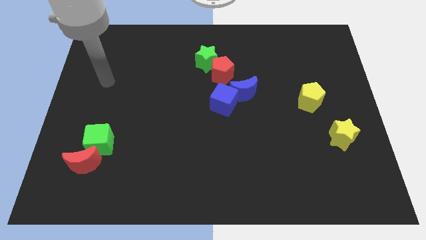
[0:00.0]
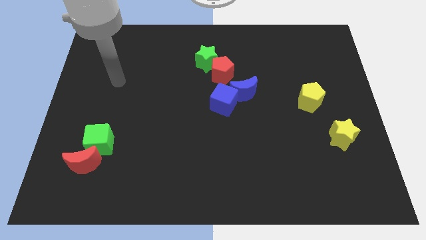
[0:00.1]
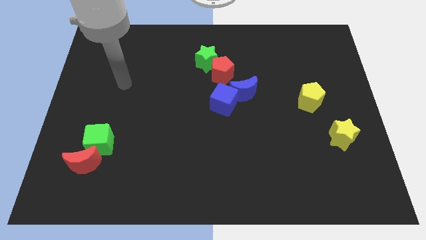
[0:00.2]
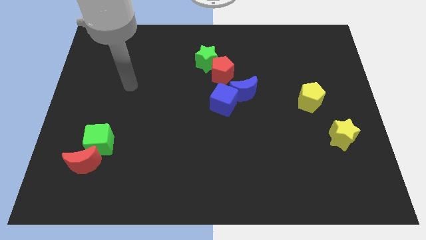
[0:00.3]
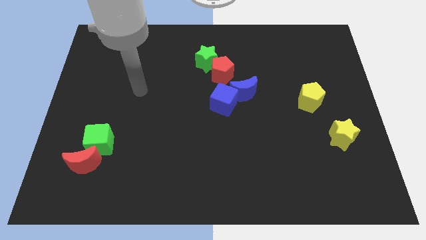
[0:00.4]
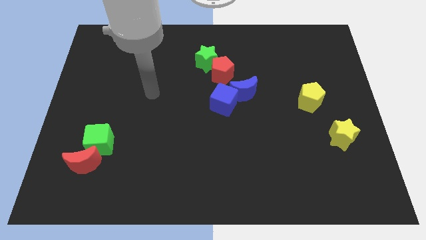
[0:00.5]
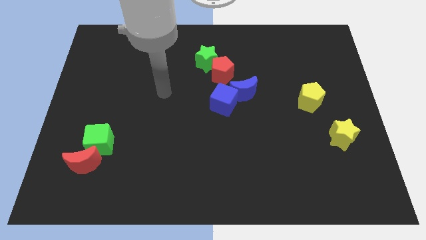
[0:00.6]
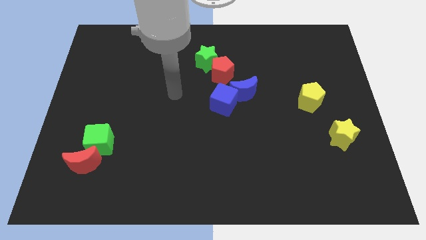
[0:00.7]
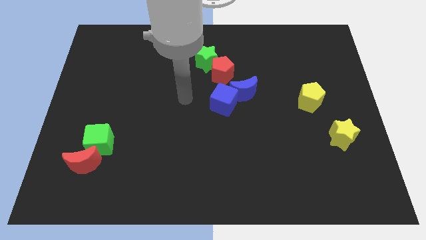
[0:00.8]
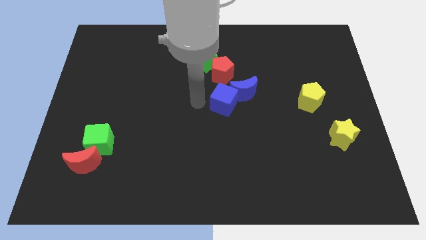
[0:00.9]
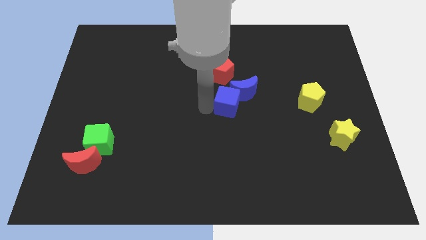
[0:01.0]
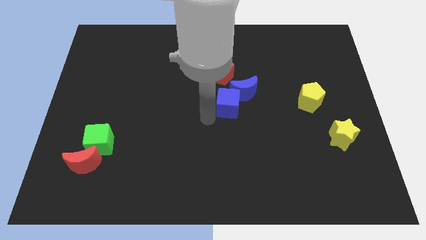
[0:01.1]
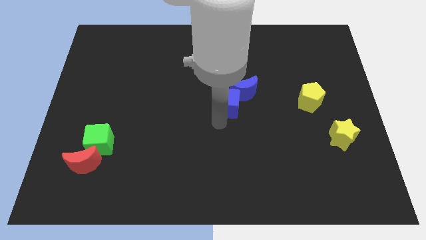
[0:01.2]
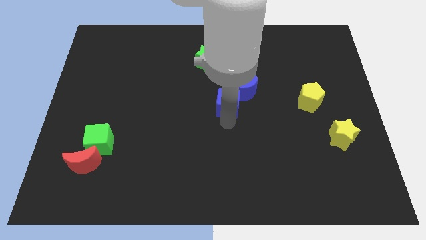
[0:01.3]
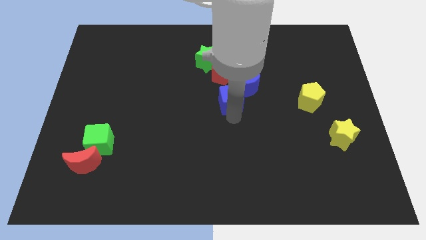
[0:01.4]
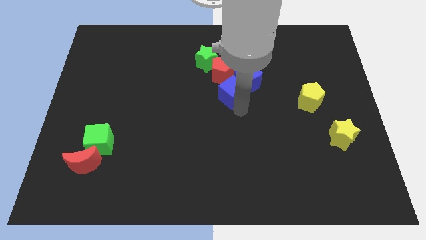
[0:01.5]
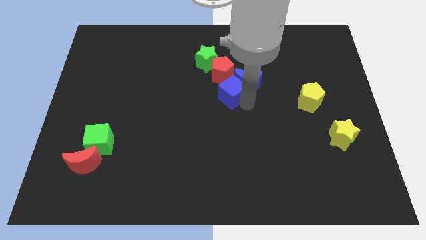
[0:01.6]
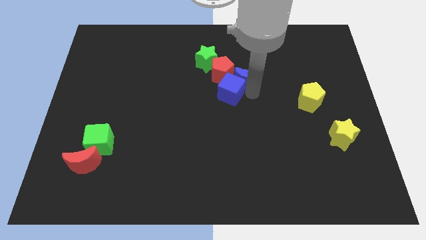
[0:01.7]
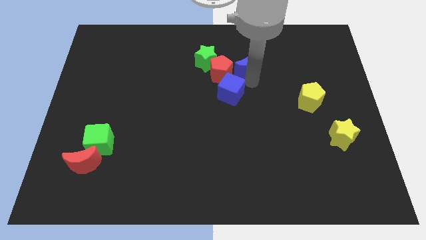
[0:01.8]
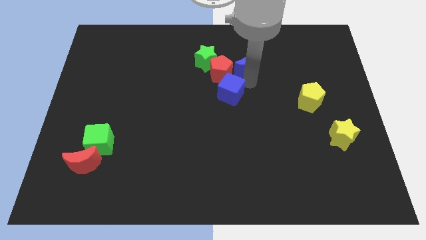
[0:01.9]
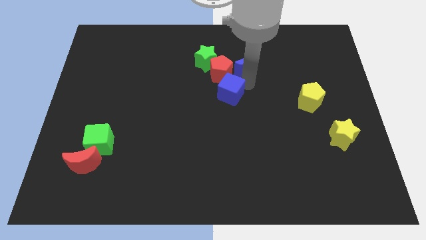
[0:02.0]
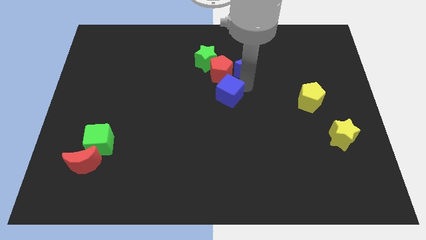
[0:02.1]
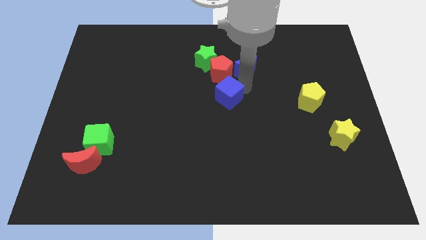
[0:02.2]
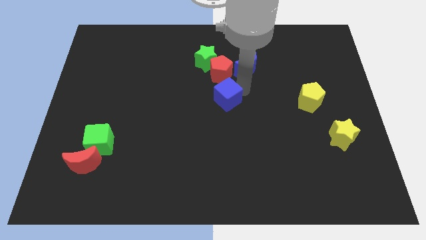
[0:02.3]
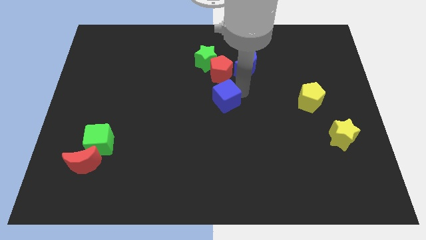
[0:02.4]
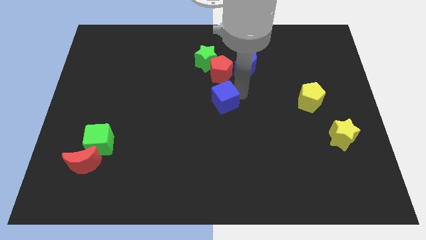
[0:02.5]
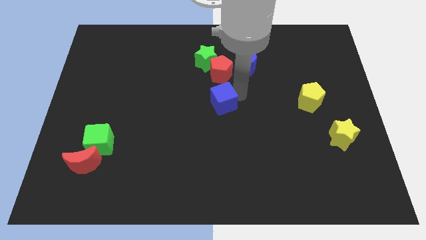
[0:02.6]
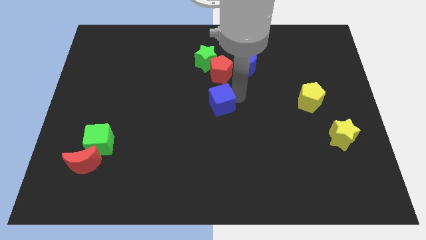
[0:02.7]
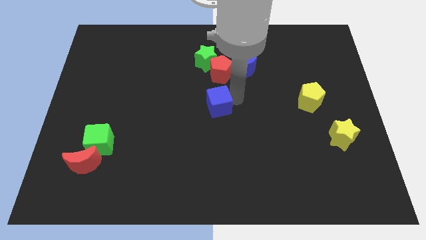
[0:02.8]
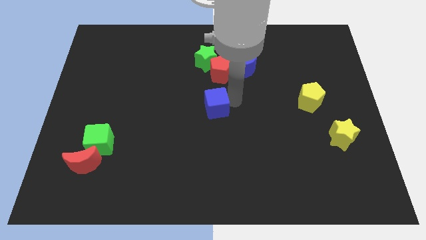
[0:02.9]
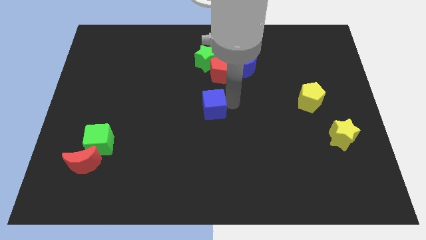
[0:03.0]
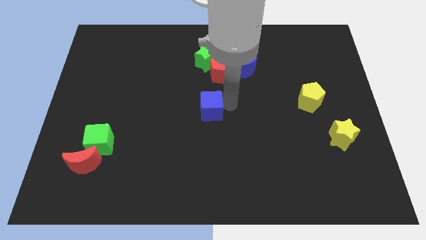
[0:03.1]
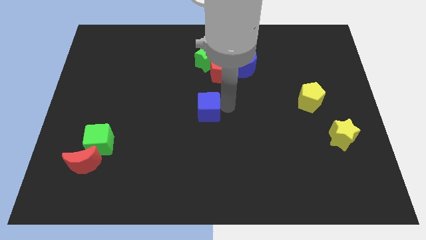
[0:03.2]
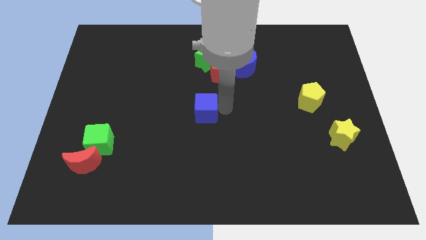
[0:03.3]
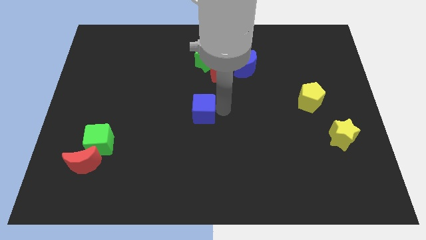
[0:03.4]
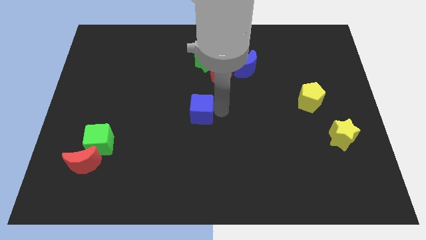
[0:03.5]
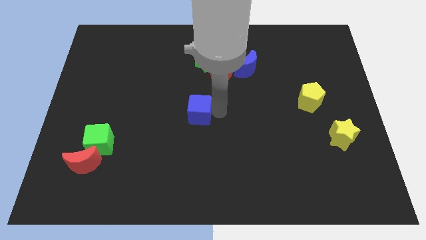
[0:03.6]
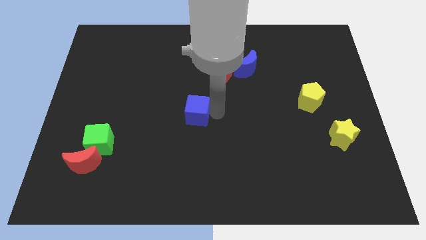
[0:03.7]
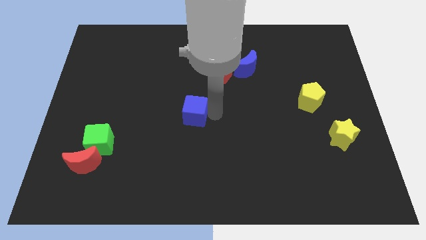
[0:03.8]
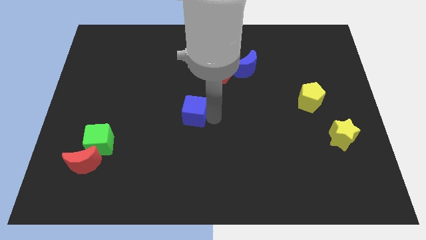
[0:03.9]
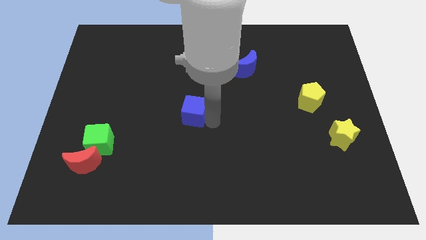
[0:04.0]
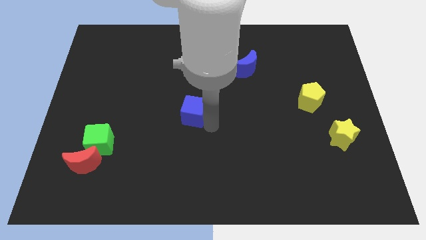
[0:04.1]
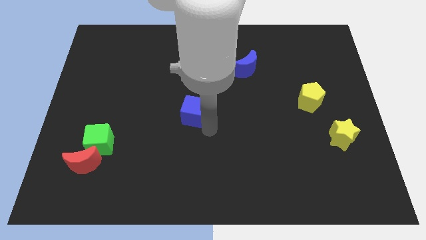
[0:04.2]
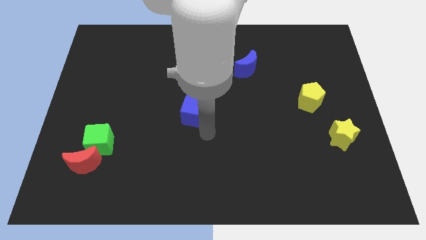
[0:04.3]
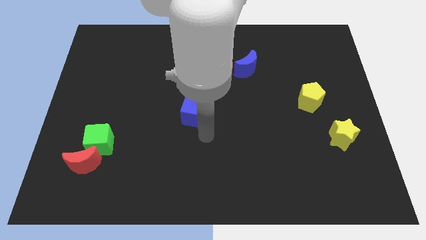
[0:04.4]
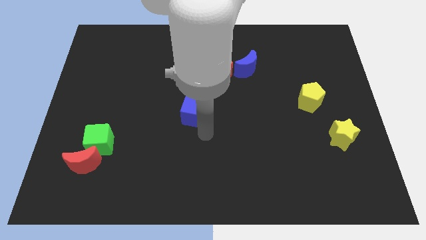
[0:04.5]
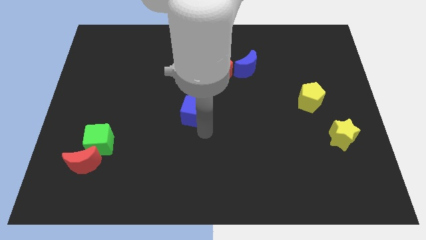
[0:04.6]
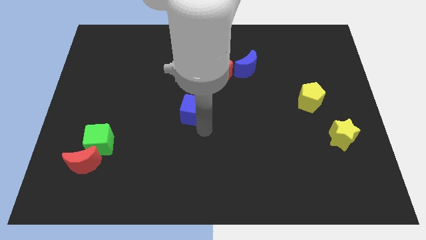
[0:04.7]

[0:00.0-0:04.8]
slightly slide the blue cube to the left

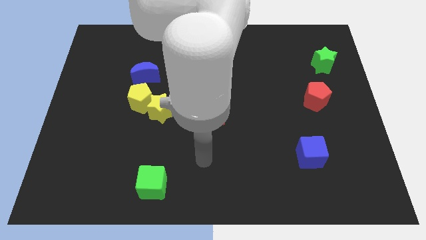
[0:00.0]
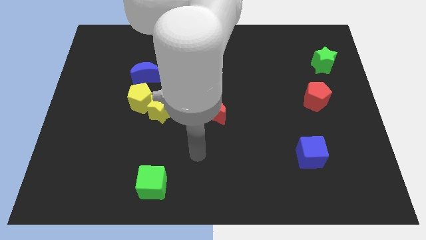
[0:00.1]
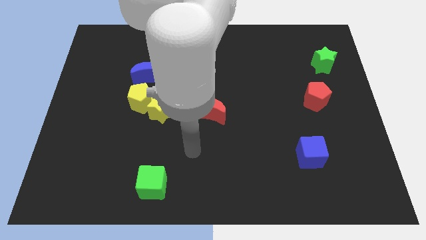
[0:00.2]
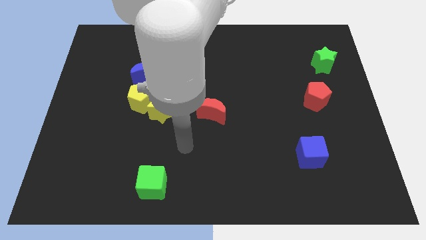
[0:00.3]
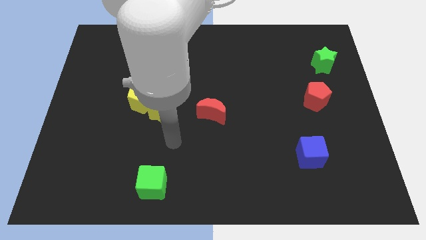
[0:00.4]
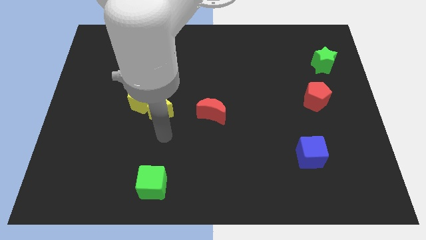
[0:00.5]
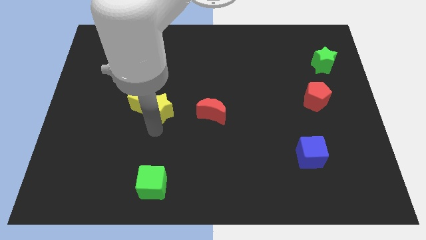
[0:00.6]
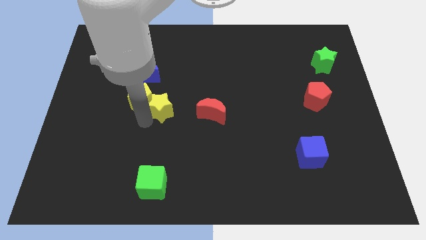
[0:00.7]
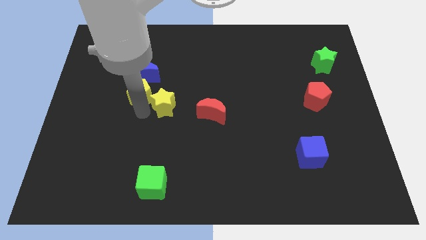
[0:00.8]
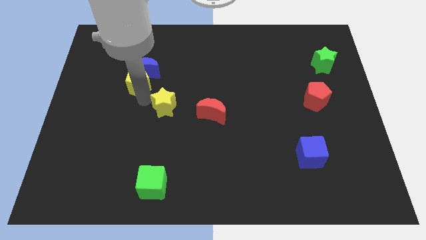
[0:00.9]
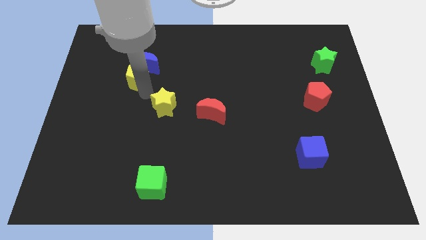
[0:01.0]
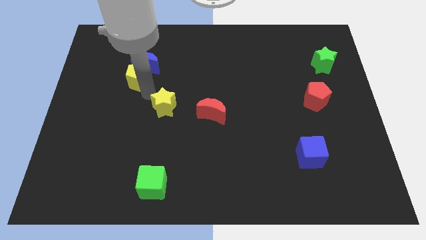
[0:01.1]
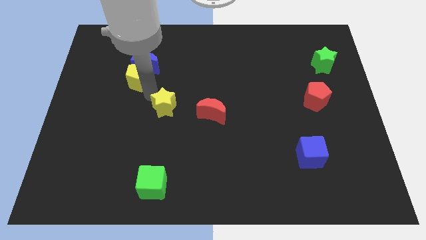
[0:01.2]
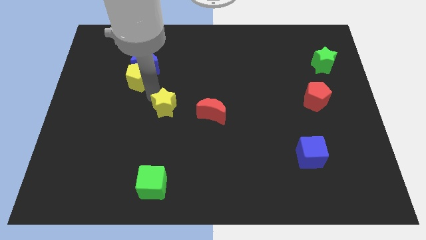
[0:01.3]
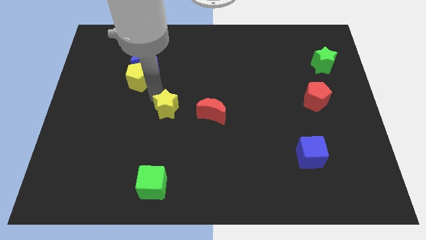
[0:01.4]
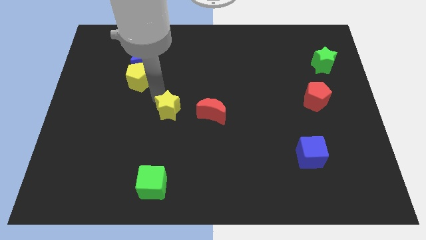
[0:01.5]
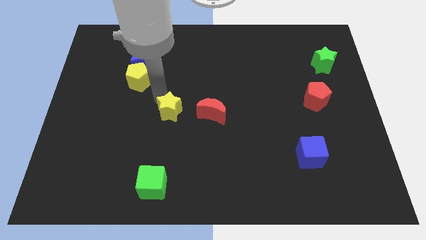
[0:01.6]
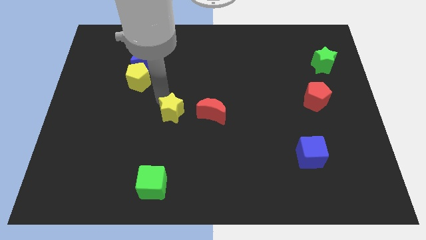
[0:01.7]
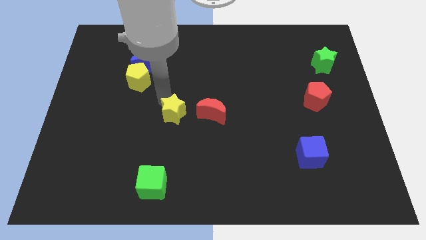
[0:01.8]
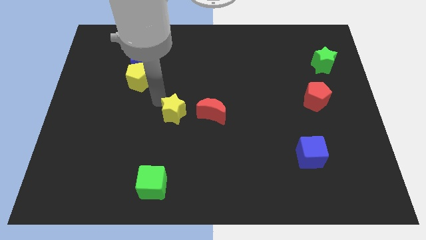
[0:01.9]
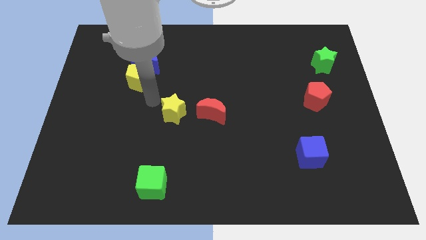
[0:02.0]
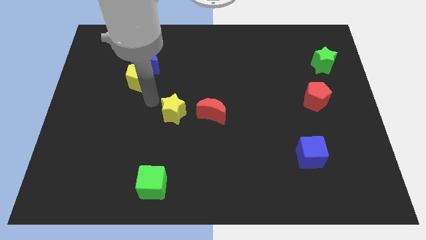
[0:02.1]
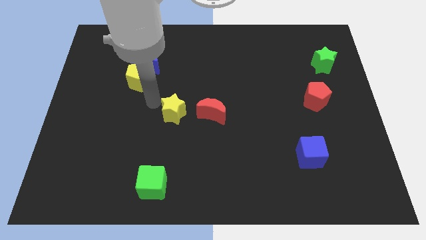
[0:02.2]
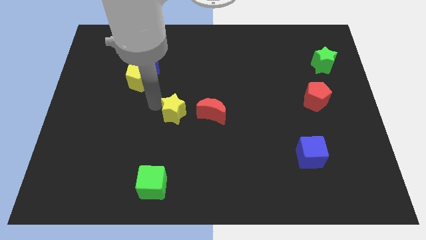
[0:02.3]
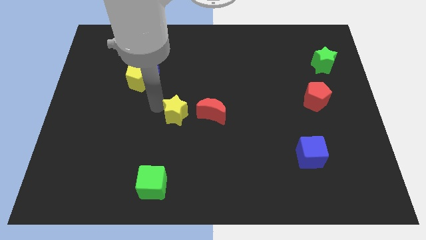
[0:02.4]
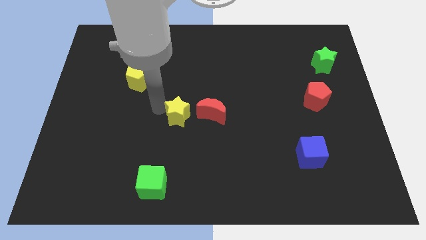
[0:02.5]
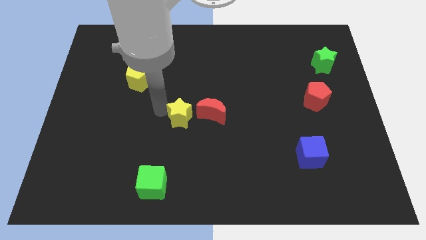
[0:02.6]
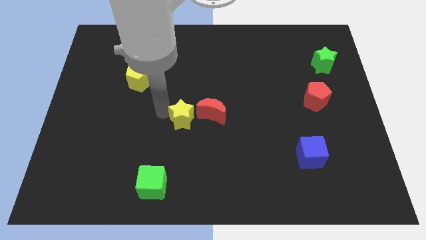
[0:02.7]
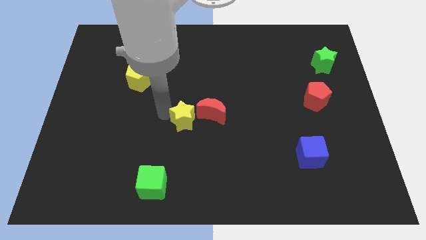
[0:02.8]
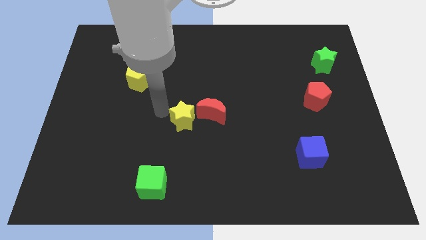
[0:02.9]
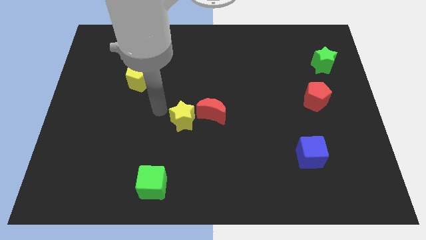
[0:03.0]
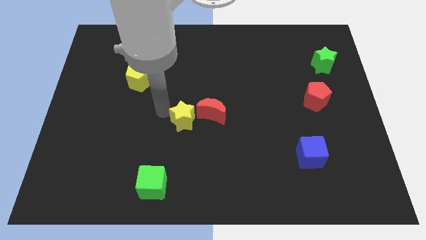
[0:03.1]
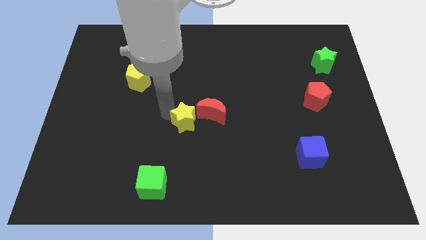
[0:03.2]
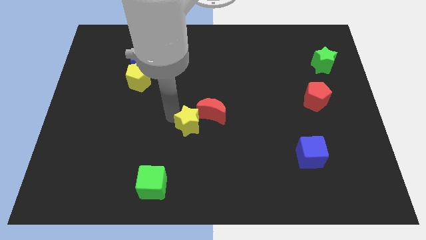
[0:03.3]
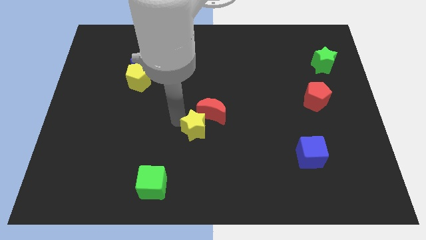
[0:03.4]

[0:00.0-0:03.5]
slide the yellow star a little bit to the right
